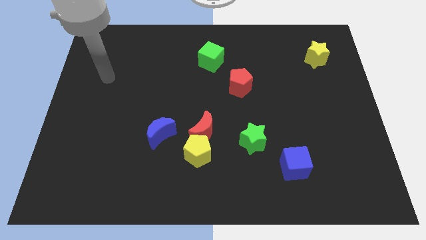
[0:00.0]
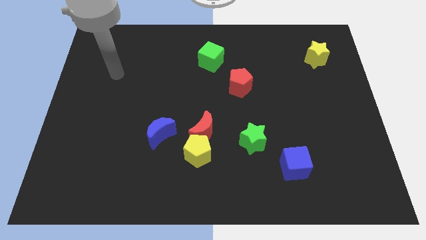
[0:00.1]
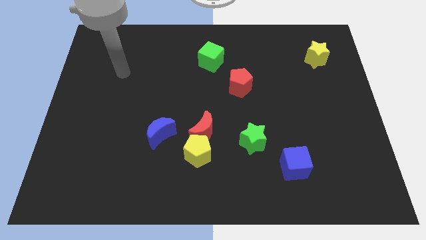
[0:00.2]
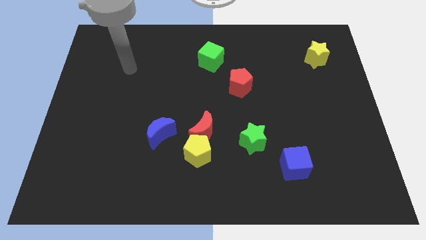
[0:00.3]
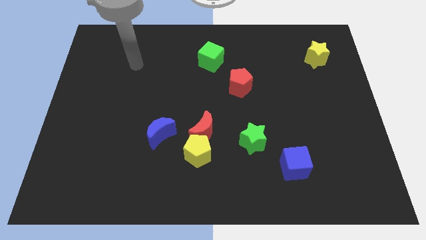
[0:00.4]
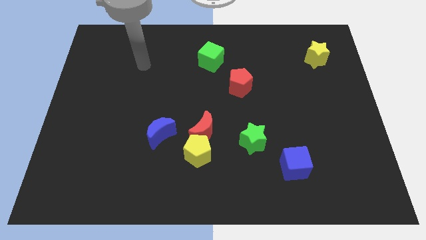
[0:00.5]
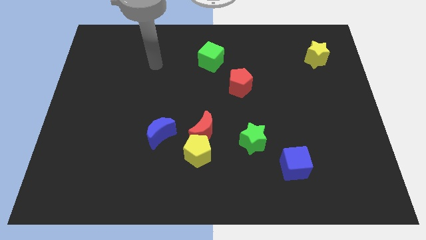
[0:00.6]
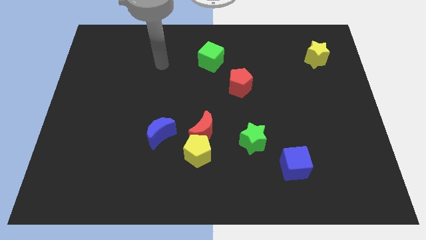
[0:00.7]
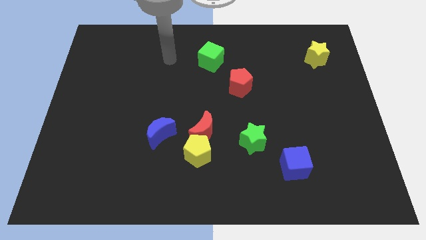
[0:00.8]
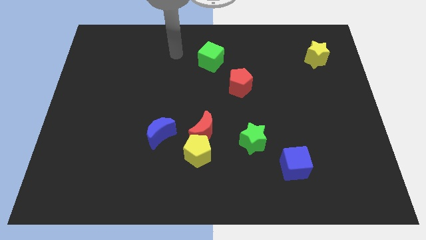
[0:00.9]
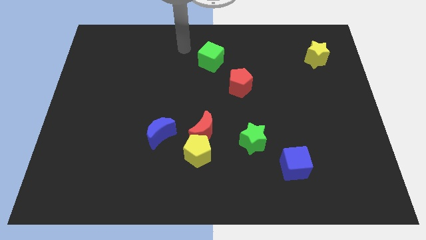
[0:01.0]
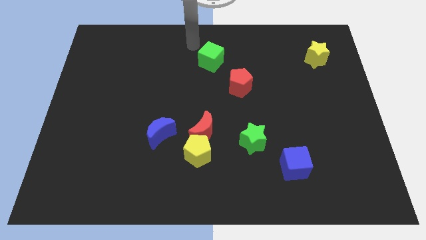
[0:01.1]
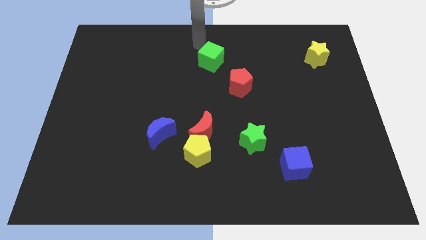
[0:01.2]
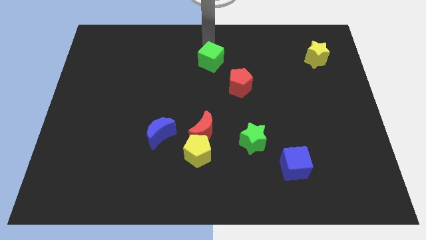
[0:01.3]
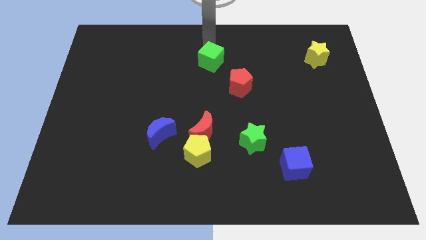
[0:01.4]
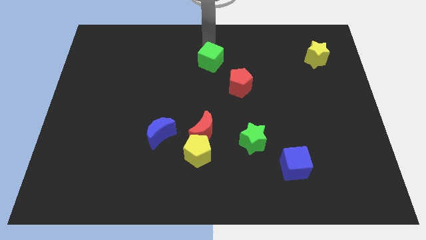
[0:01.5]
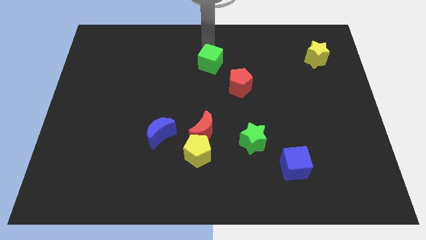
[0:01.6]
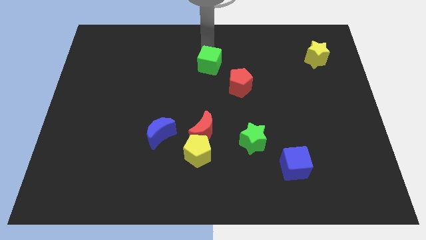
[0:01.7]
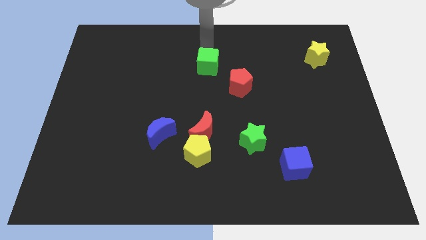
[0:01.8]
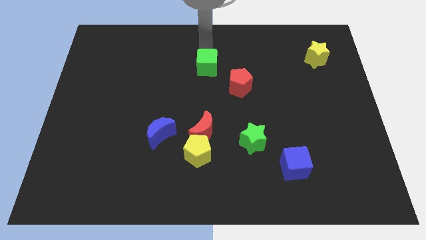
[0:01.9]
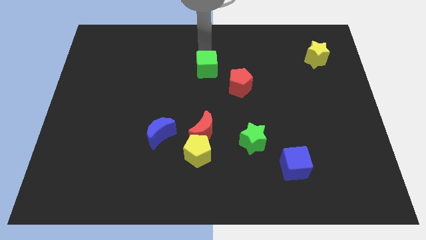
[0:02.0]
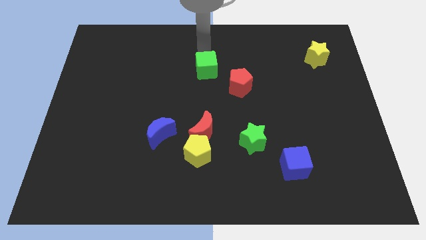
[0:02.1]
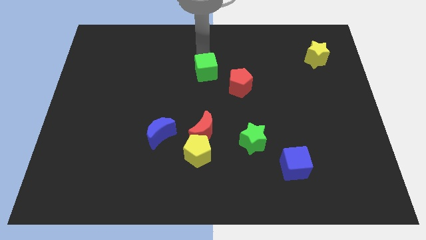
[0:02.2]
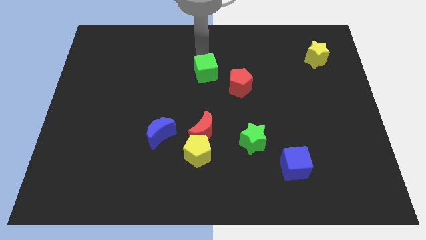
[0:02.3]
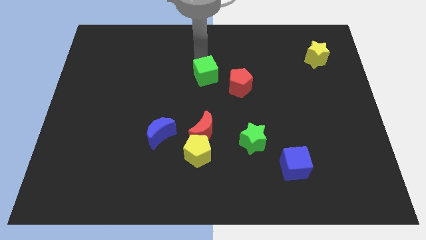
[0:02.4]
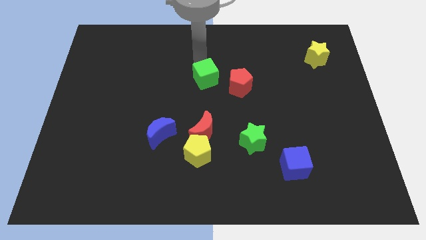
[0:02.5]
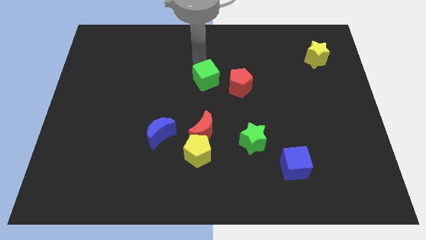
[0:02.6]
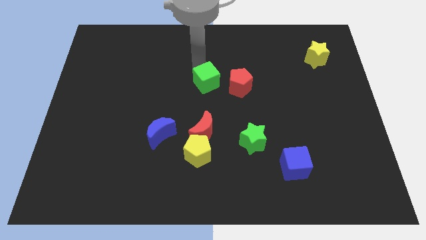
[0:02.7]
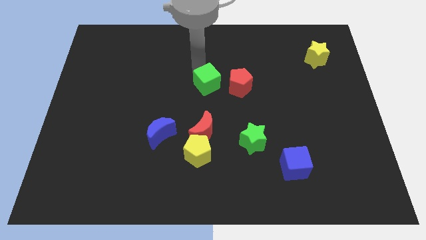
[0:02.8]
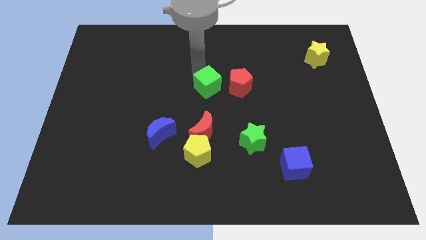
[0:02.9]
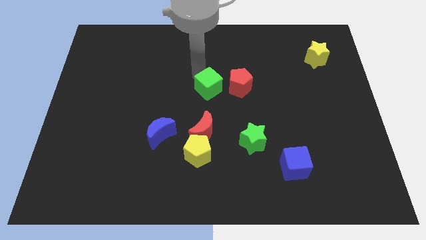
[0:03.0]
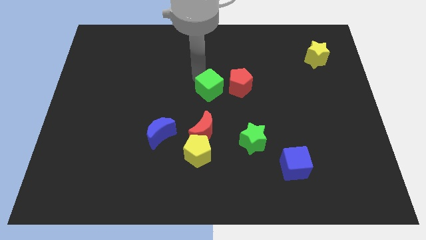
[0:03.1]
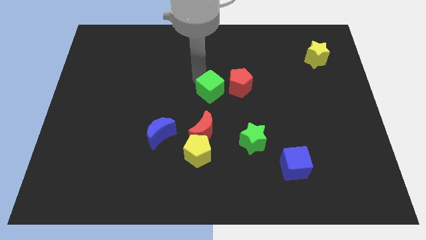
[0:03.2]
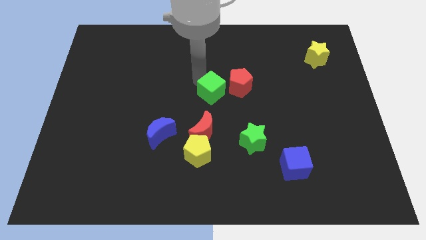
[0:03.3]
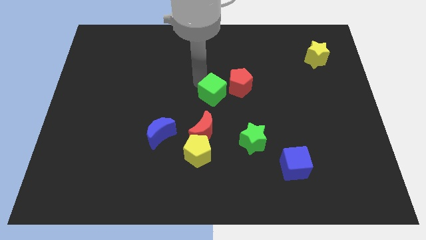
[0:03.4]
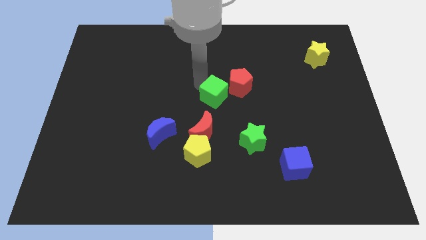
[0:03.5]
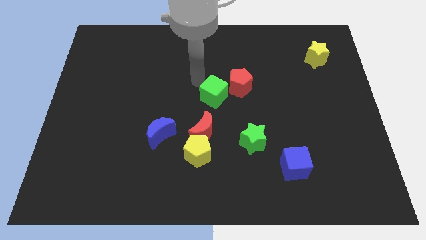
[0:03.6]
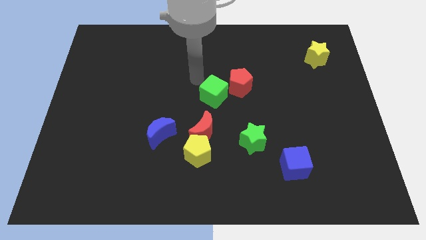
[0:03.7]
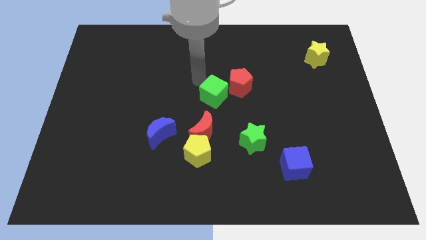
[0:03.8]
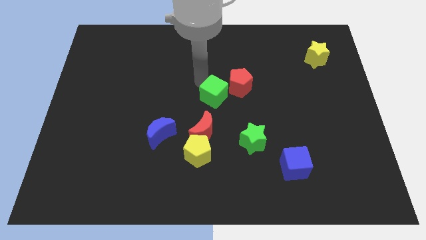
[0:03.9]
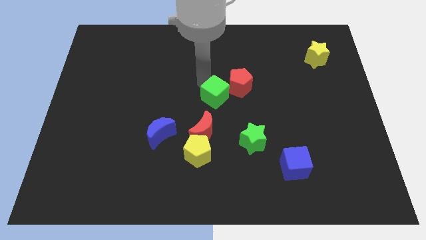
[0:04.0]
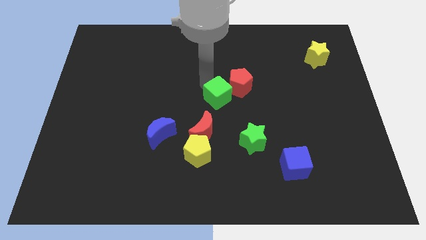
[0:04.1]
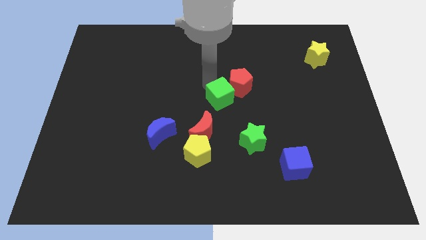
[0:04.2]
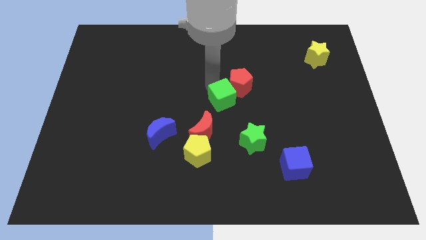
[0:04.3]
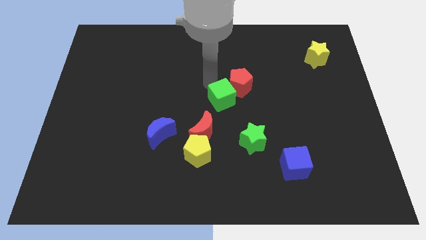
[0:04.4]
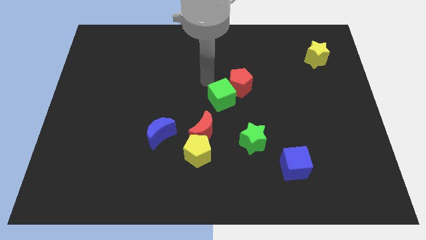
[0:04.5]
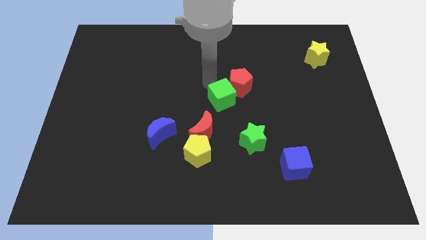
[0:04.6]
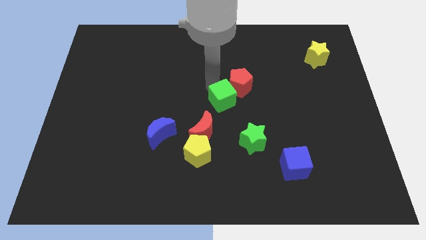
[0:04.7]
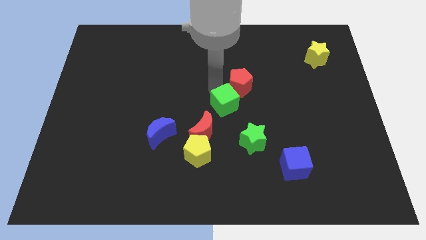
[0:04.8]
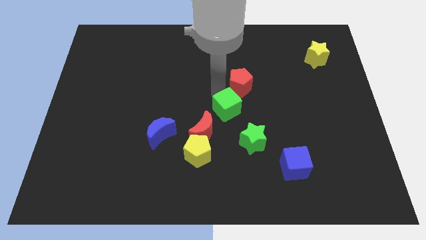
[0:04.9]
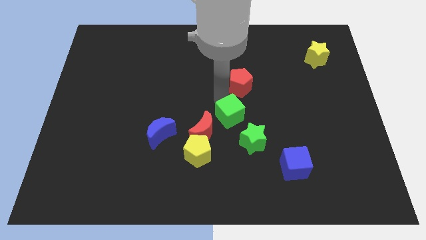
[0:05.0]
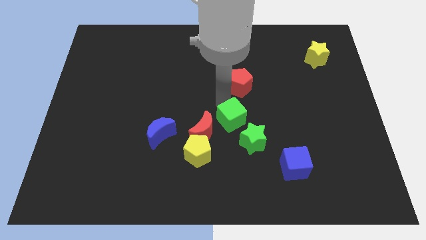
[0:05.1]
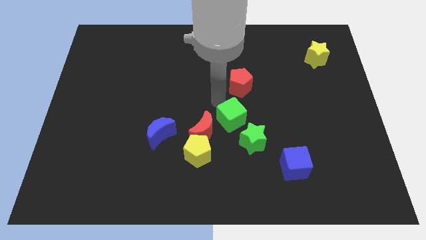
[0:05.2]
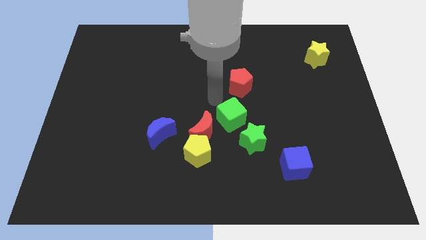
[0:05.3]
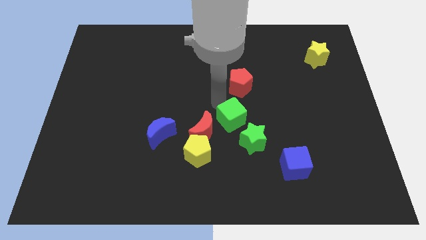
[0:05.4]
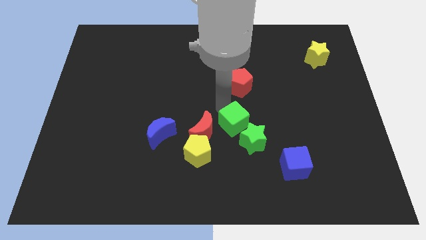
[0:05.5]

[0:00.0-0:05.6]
push the green cube close to the green star

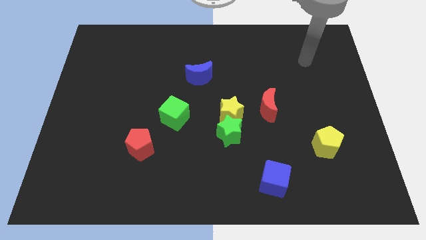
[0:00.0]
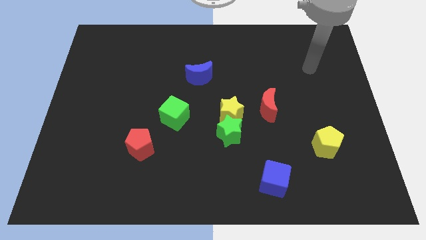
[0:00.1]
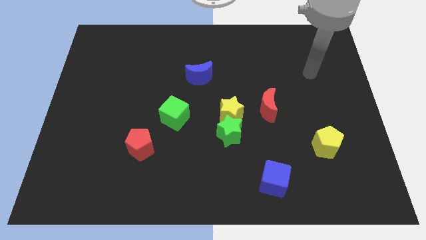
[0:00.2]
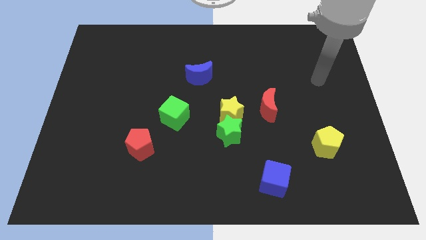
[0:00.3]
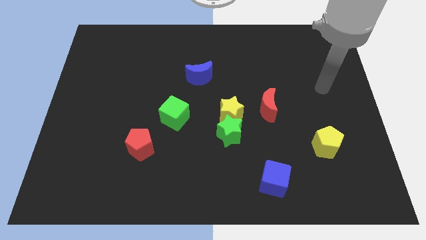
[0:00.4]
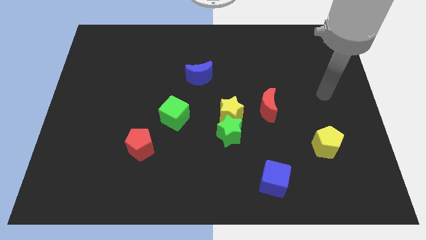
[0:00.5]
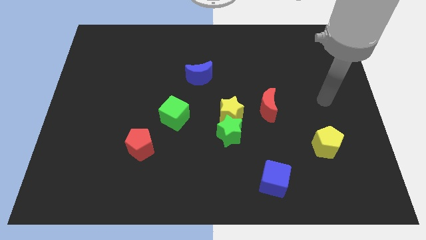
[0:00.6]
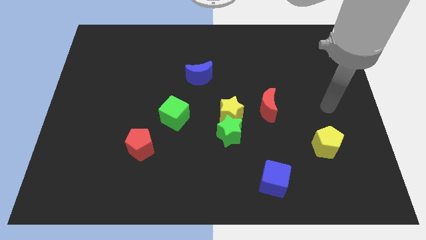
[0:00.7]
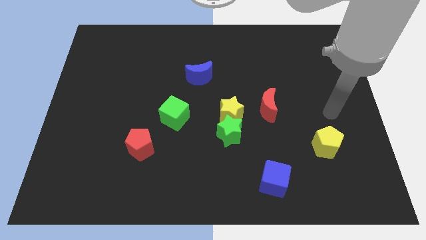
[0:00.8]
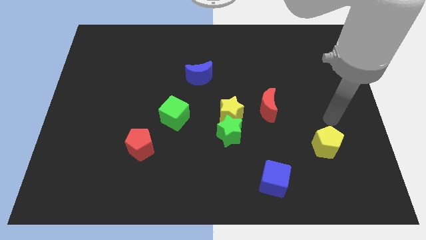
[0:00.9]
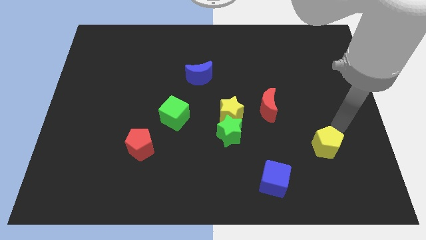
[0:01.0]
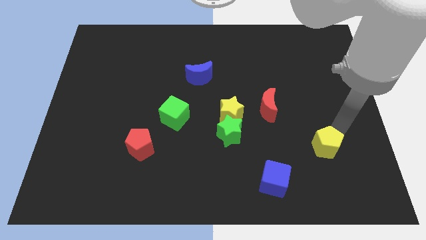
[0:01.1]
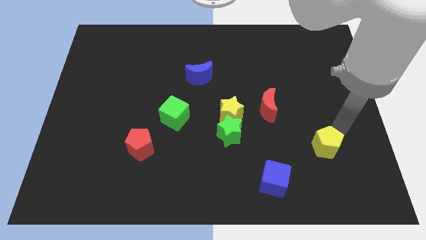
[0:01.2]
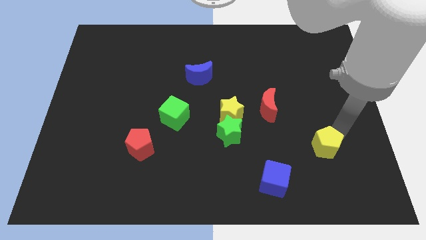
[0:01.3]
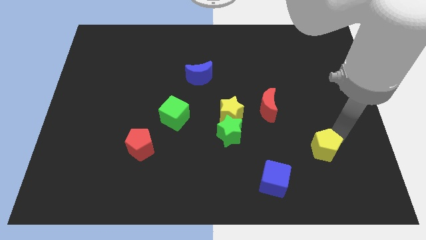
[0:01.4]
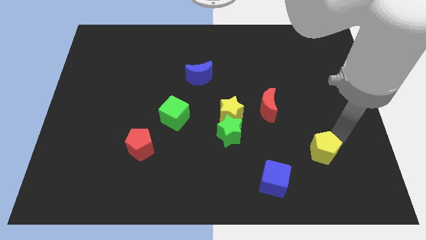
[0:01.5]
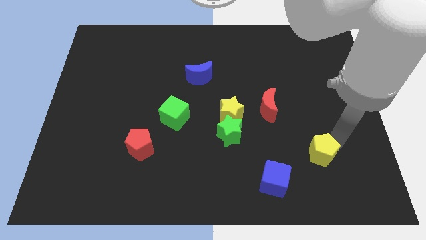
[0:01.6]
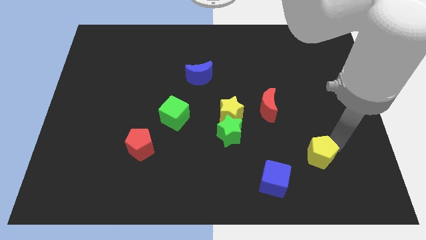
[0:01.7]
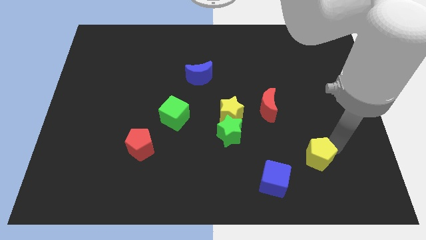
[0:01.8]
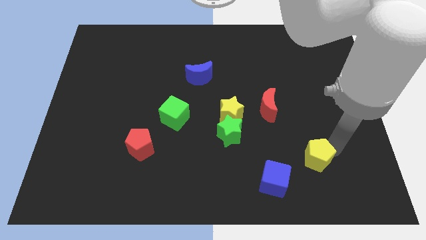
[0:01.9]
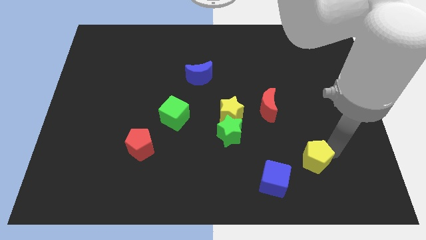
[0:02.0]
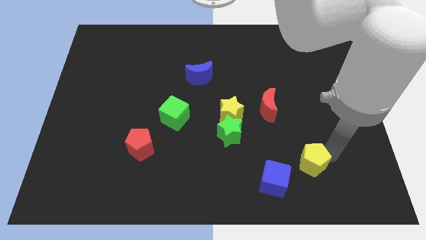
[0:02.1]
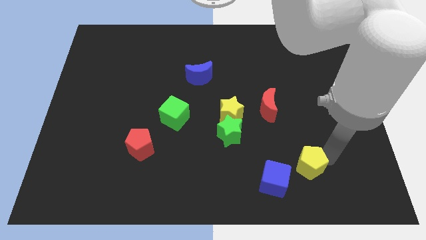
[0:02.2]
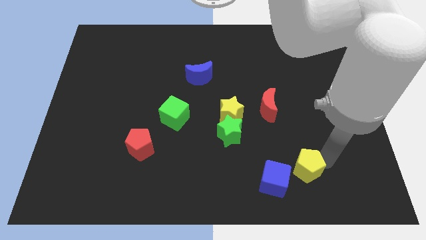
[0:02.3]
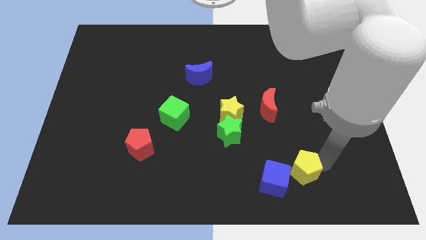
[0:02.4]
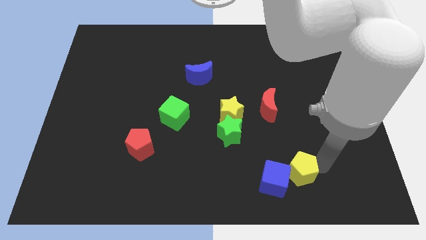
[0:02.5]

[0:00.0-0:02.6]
put the yellow pentagon towards the blue cube

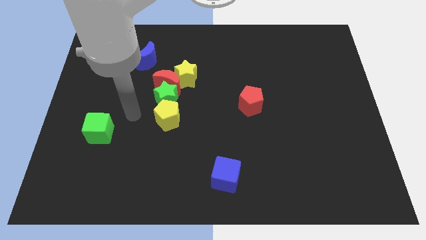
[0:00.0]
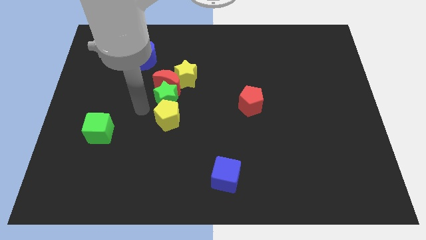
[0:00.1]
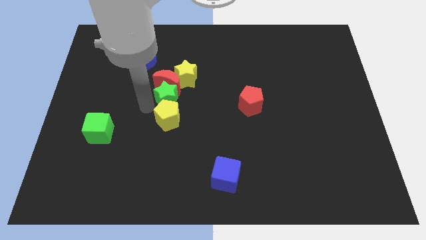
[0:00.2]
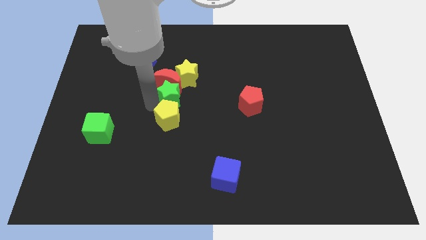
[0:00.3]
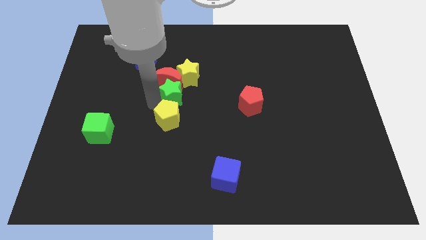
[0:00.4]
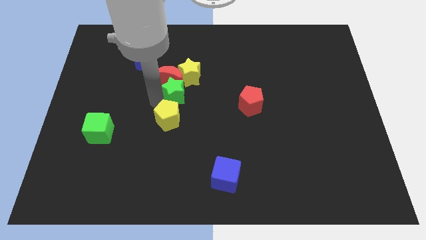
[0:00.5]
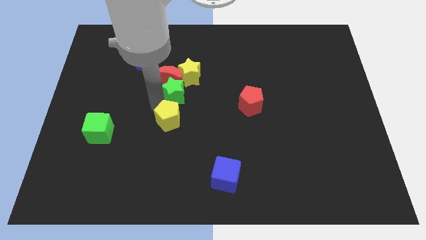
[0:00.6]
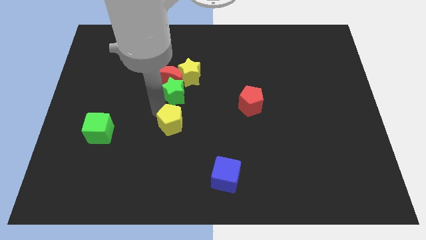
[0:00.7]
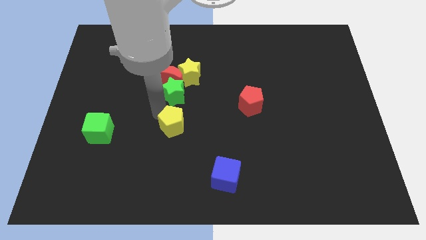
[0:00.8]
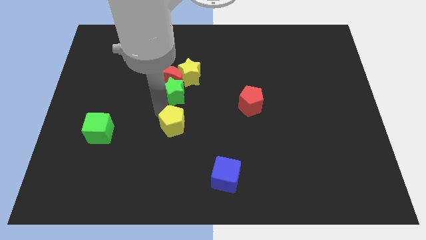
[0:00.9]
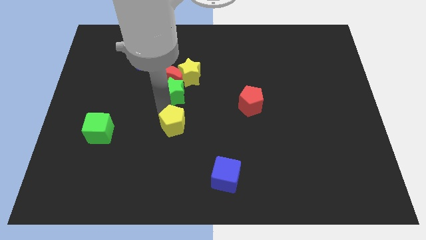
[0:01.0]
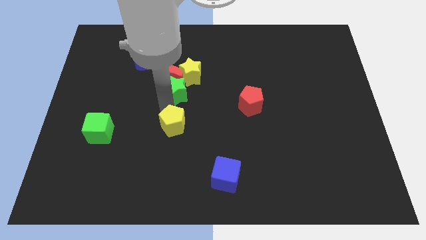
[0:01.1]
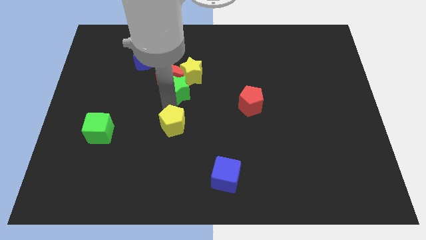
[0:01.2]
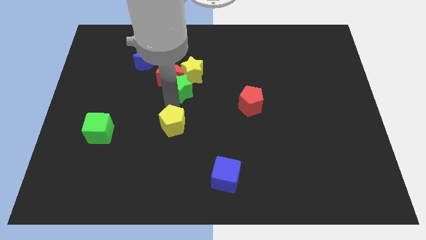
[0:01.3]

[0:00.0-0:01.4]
put the green star to the yellow star
